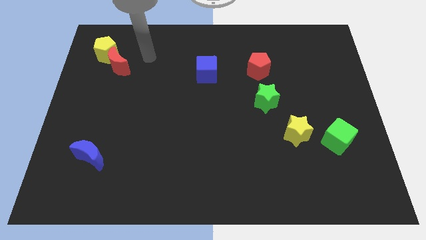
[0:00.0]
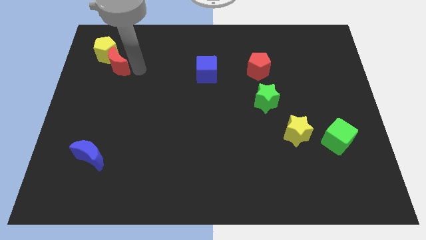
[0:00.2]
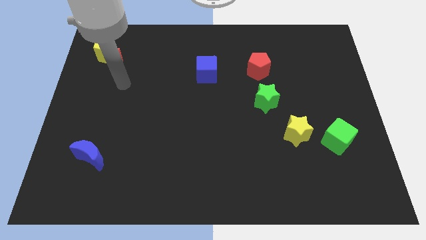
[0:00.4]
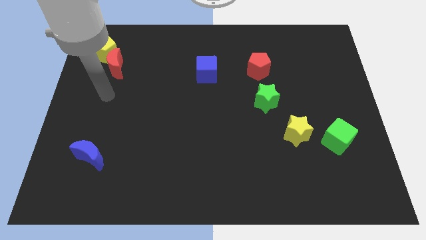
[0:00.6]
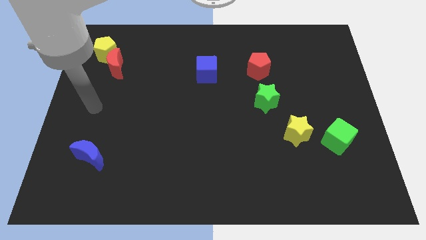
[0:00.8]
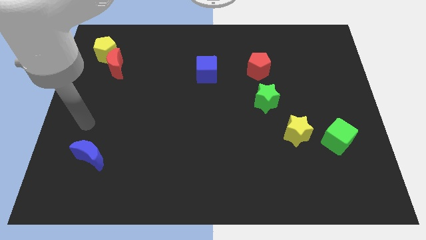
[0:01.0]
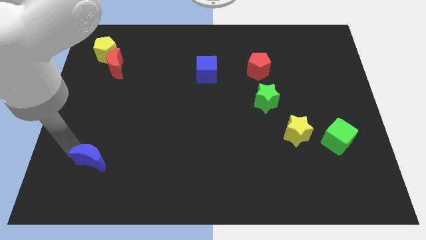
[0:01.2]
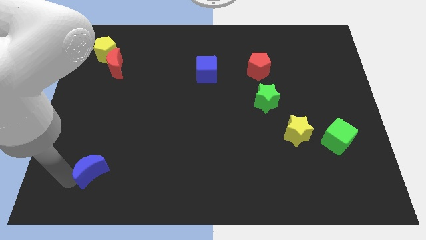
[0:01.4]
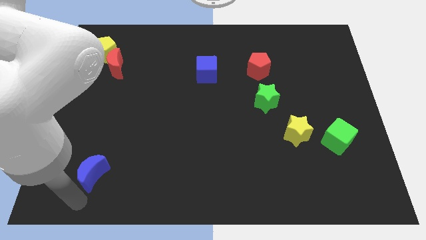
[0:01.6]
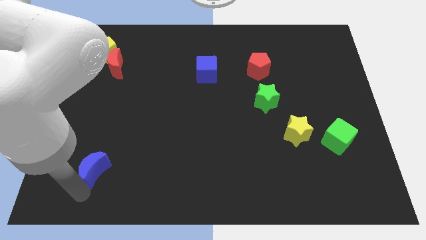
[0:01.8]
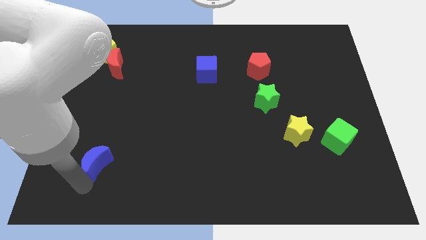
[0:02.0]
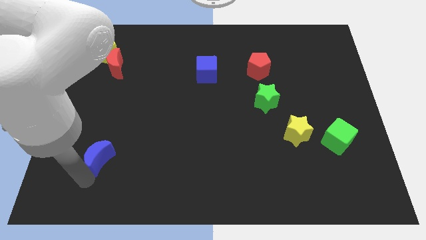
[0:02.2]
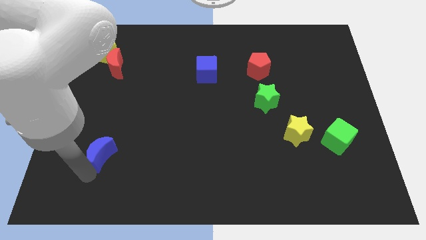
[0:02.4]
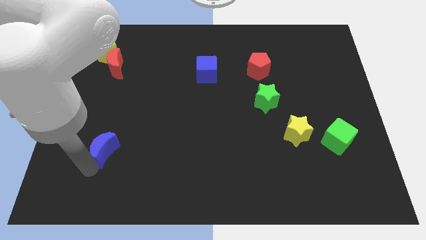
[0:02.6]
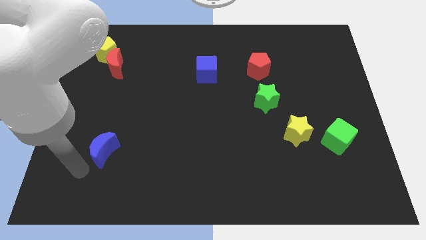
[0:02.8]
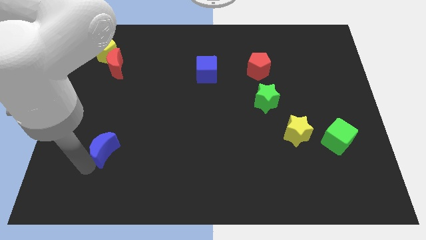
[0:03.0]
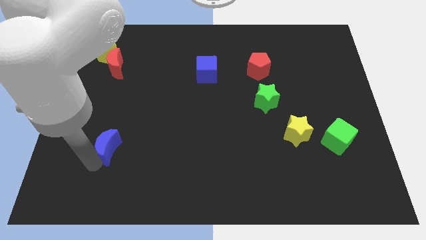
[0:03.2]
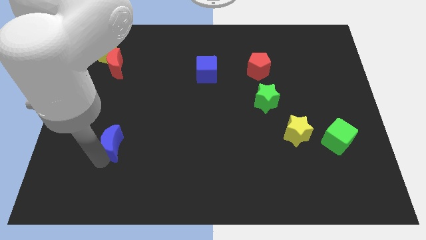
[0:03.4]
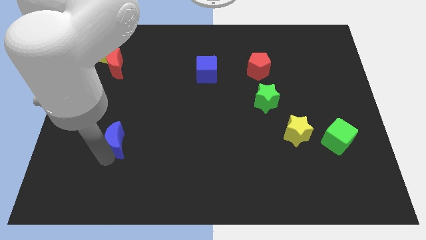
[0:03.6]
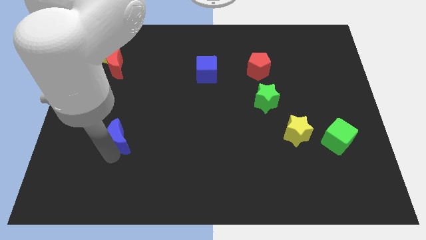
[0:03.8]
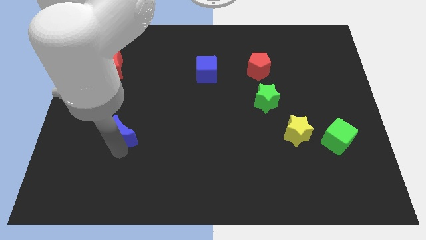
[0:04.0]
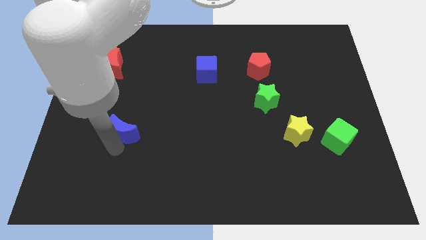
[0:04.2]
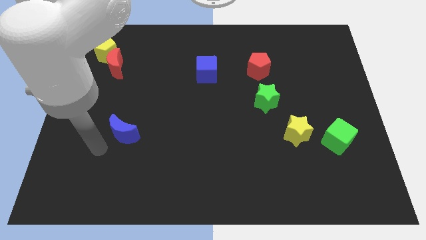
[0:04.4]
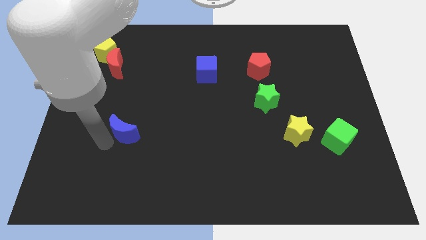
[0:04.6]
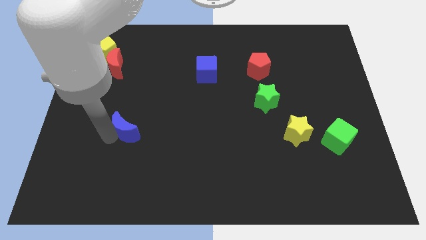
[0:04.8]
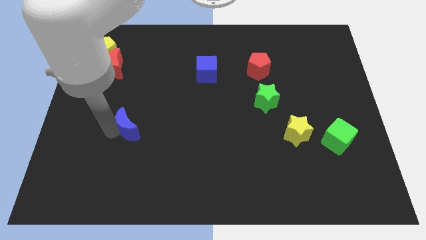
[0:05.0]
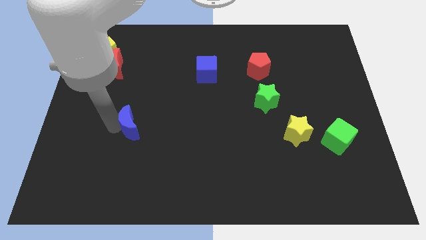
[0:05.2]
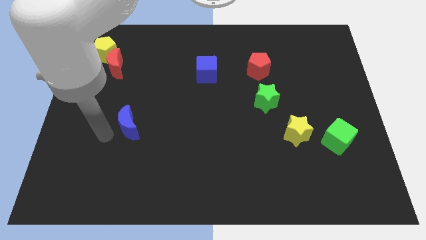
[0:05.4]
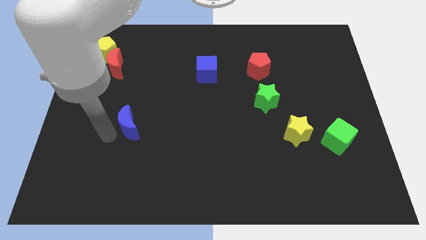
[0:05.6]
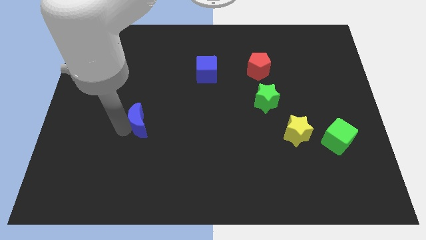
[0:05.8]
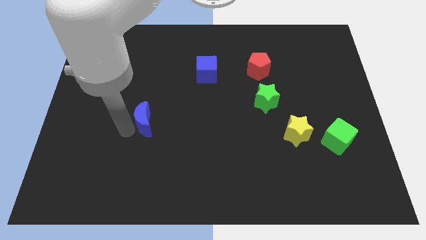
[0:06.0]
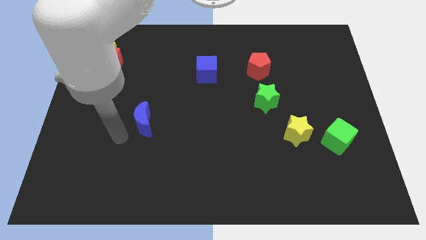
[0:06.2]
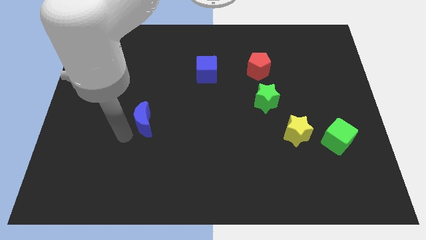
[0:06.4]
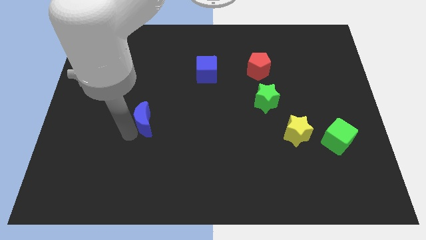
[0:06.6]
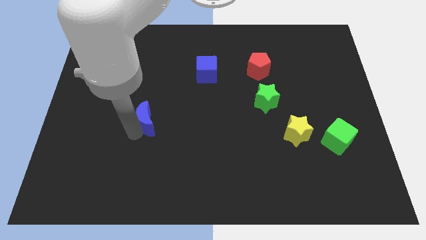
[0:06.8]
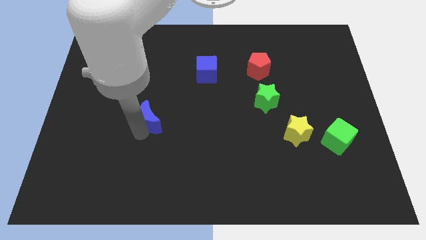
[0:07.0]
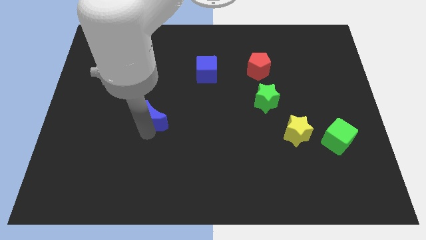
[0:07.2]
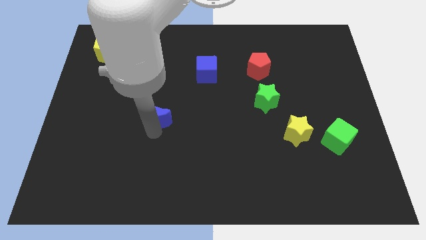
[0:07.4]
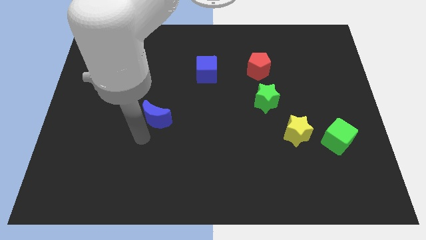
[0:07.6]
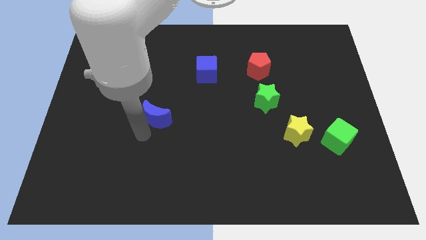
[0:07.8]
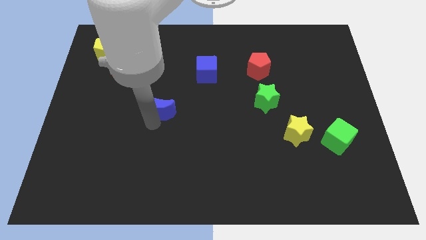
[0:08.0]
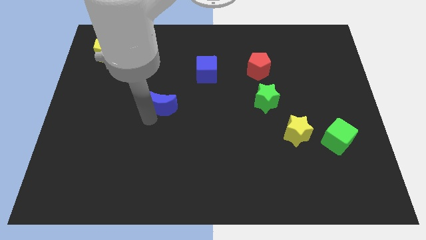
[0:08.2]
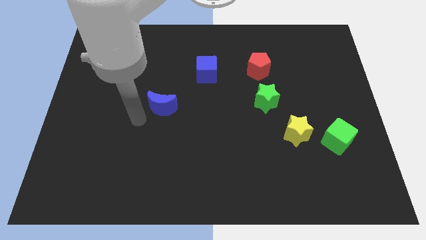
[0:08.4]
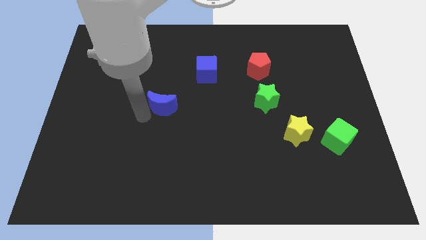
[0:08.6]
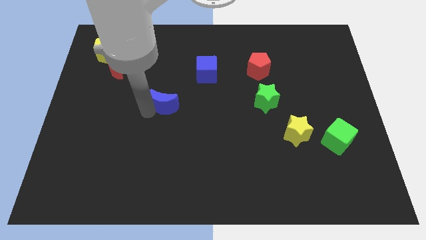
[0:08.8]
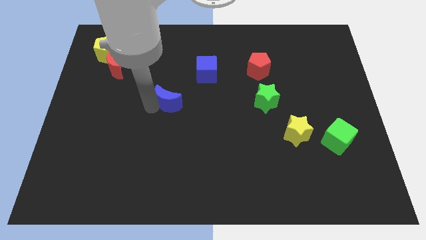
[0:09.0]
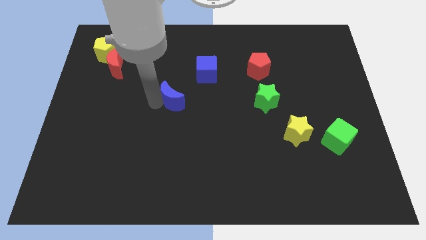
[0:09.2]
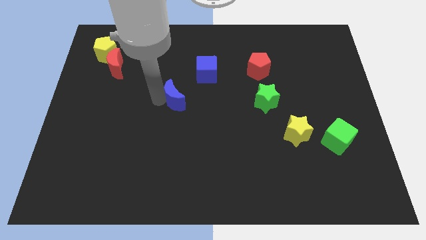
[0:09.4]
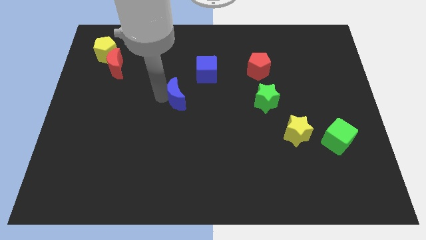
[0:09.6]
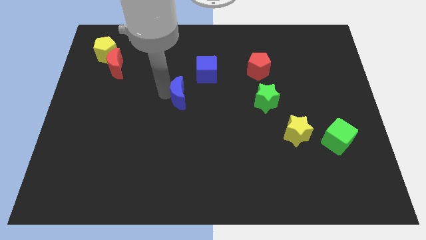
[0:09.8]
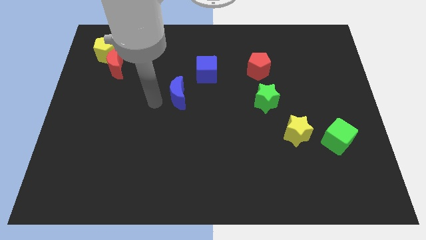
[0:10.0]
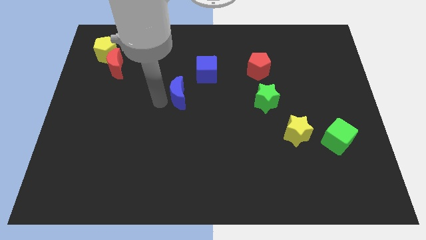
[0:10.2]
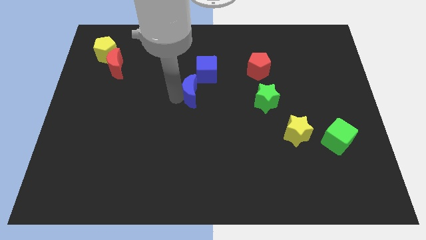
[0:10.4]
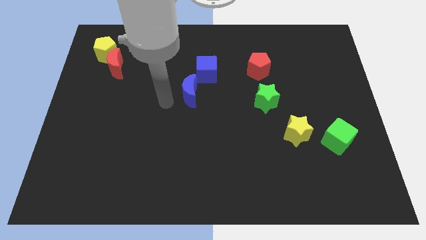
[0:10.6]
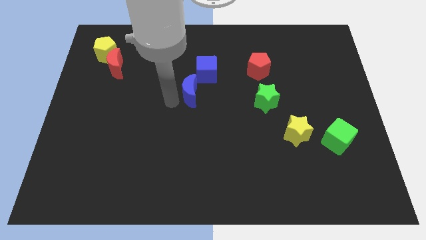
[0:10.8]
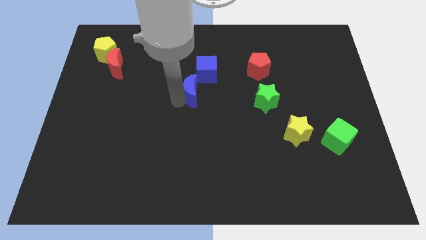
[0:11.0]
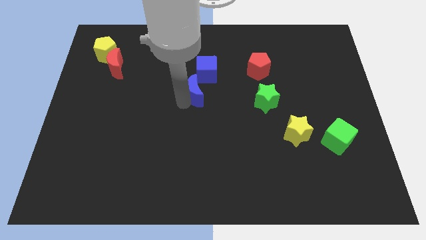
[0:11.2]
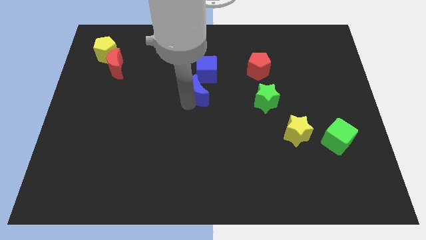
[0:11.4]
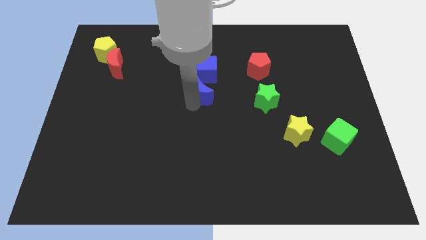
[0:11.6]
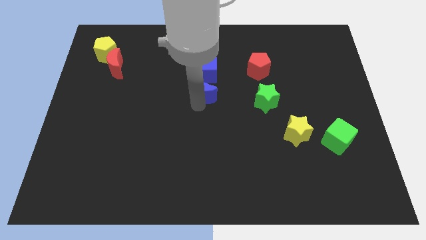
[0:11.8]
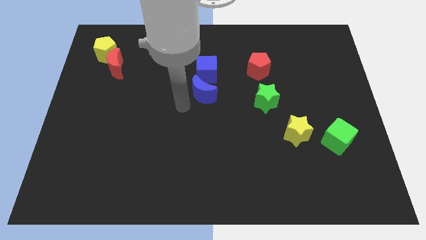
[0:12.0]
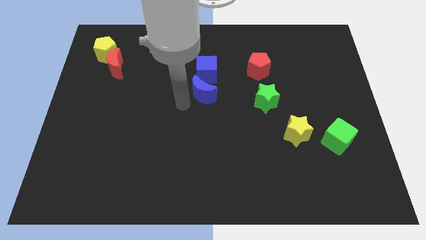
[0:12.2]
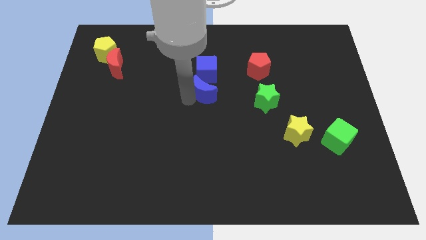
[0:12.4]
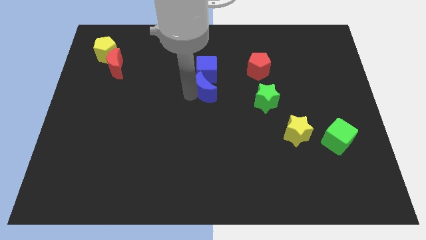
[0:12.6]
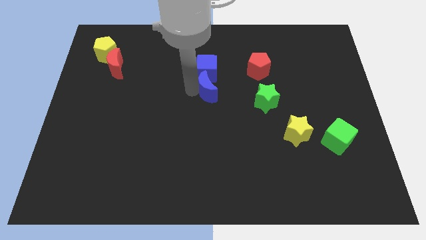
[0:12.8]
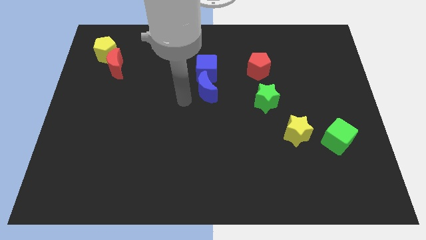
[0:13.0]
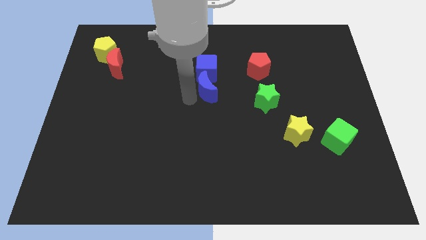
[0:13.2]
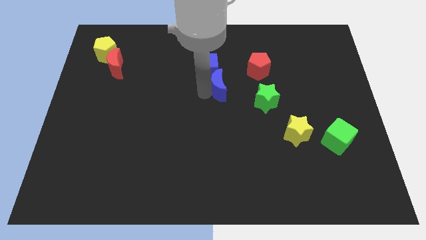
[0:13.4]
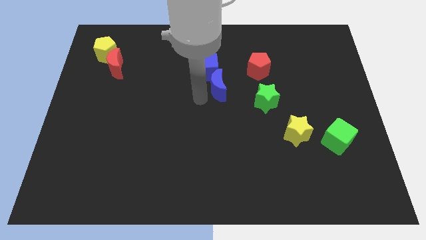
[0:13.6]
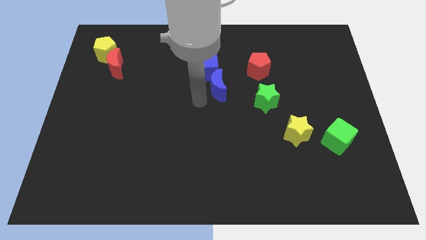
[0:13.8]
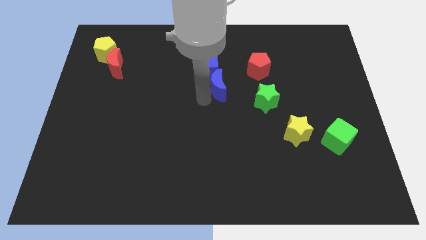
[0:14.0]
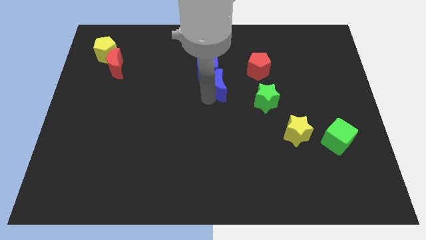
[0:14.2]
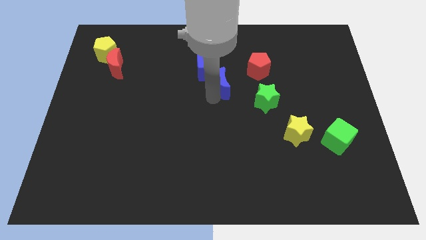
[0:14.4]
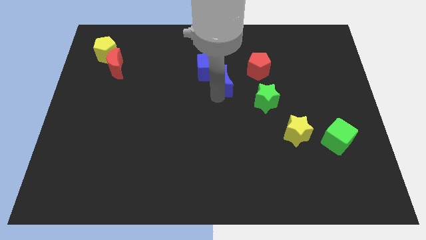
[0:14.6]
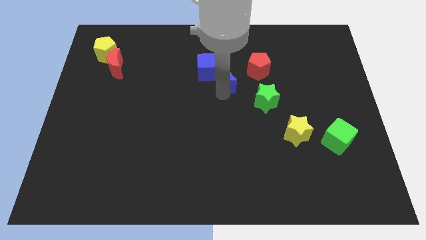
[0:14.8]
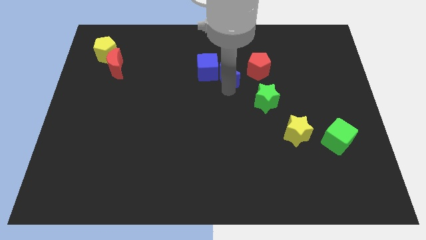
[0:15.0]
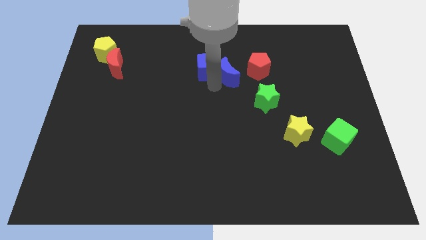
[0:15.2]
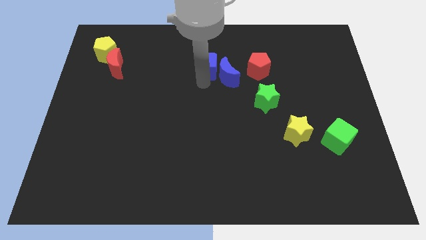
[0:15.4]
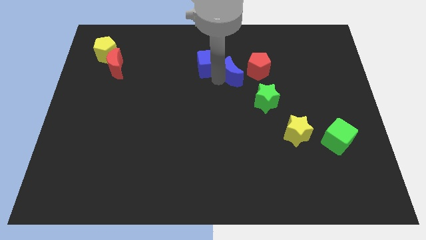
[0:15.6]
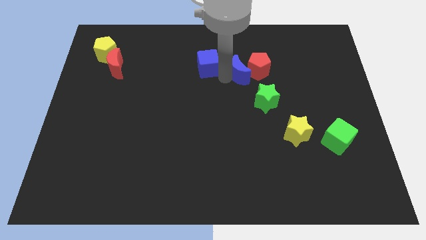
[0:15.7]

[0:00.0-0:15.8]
push the blue moon close to the red pentagon
